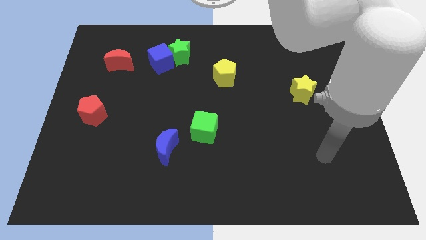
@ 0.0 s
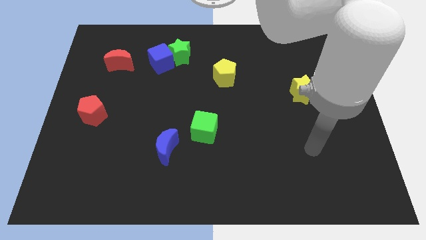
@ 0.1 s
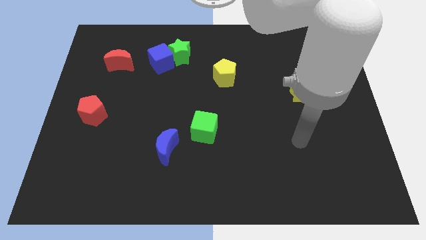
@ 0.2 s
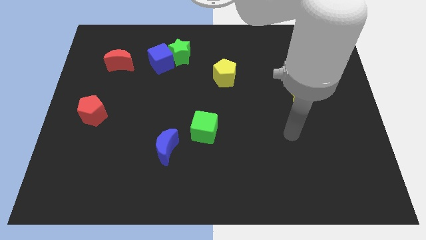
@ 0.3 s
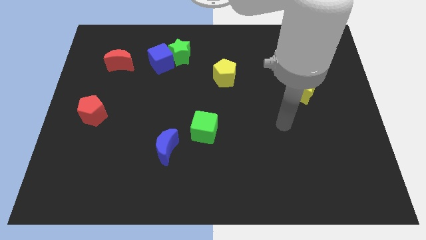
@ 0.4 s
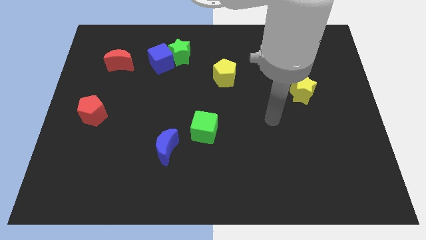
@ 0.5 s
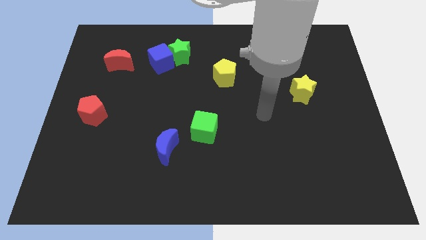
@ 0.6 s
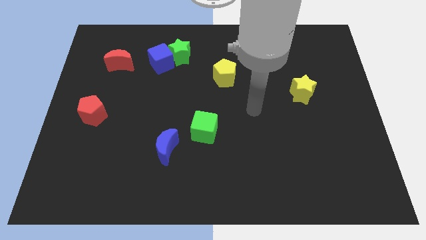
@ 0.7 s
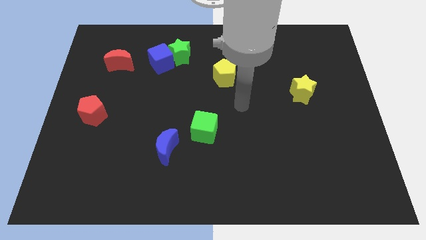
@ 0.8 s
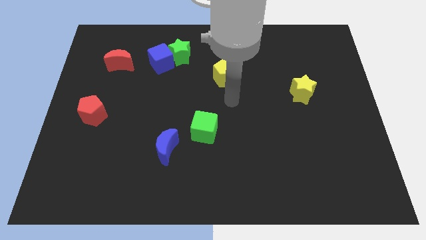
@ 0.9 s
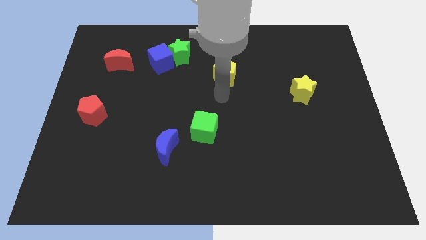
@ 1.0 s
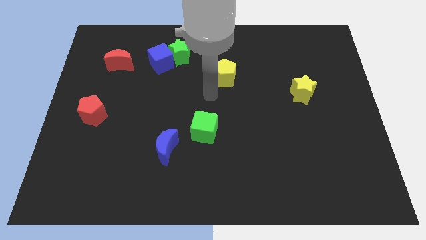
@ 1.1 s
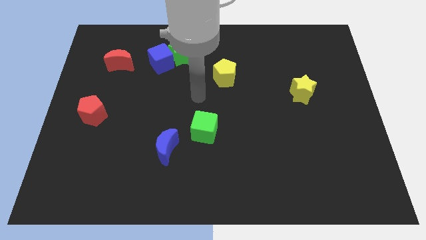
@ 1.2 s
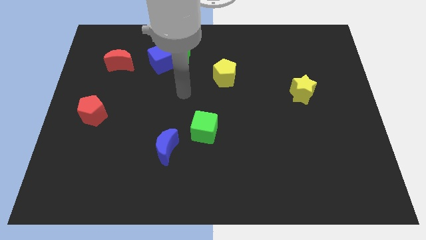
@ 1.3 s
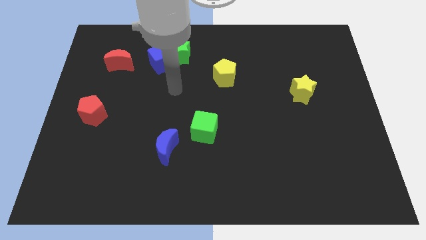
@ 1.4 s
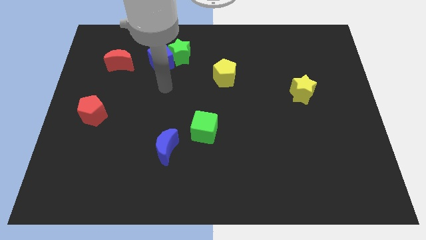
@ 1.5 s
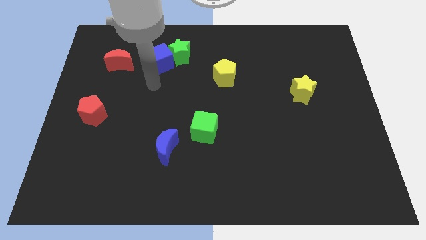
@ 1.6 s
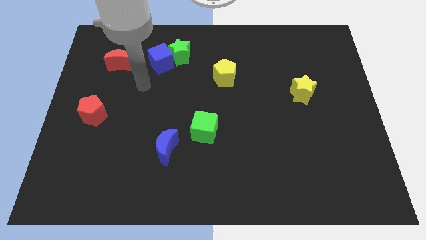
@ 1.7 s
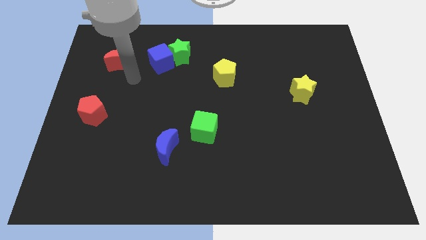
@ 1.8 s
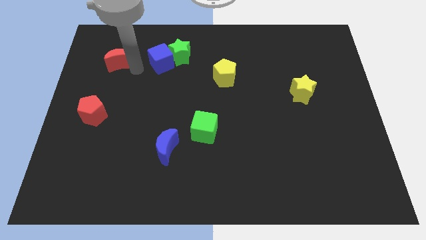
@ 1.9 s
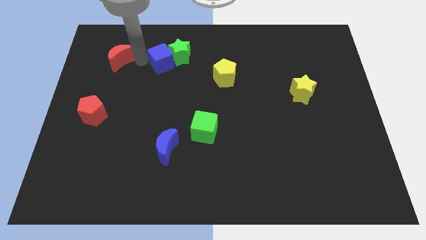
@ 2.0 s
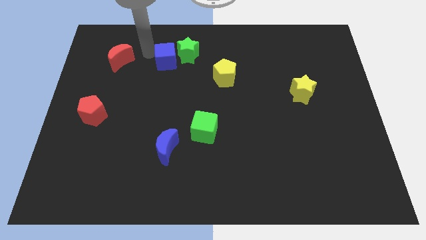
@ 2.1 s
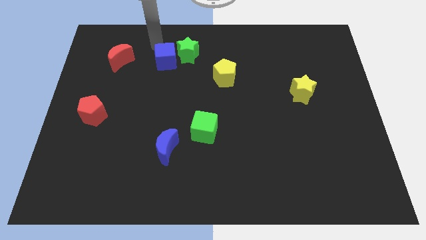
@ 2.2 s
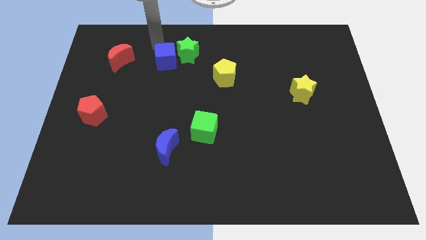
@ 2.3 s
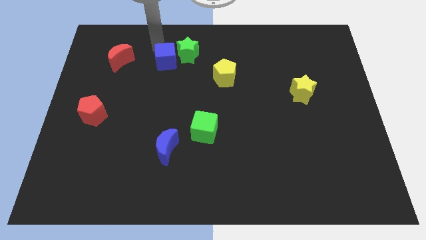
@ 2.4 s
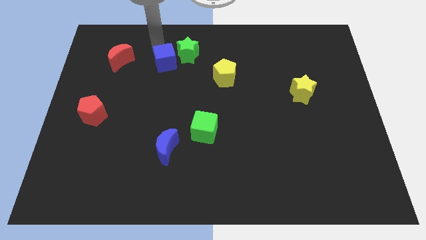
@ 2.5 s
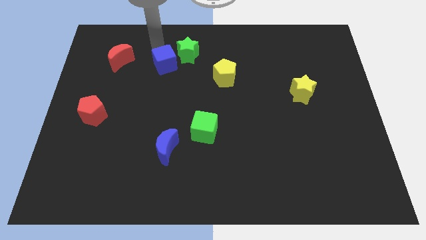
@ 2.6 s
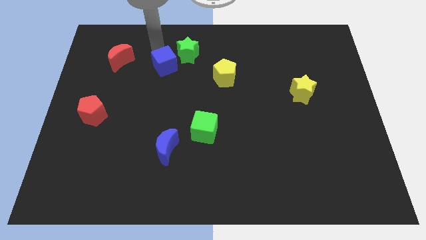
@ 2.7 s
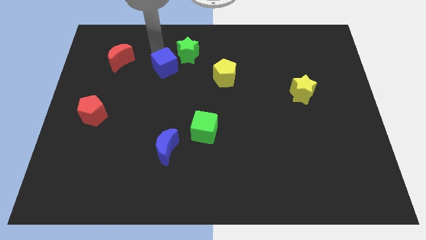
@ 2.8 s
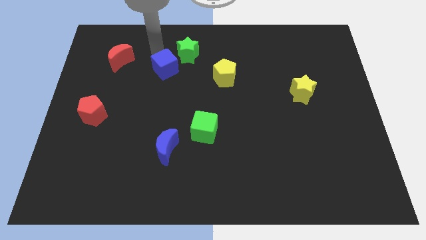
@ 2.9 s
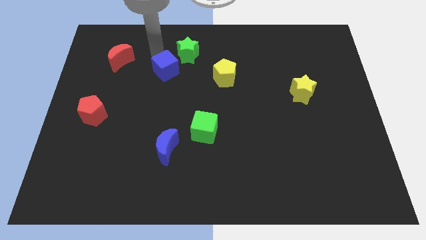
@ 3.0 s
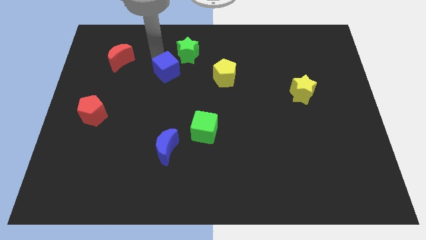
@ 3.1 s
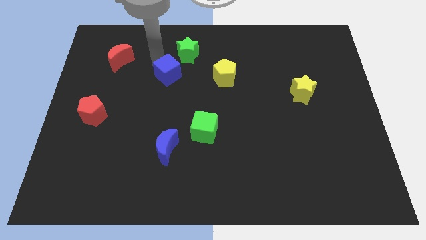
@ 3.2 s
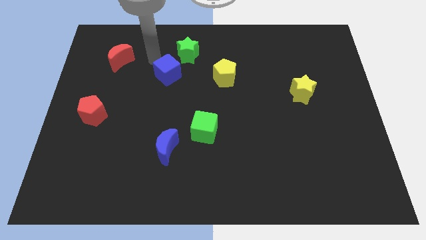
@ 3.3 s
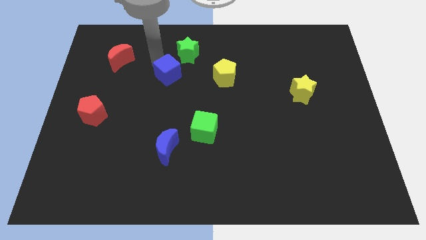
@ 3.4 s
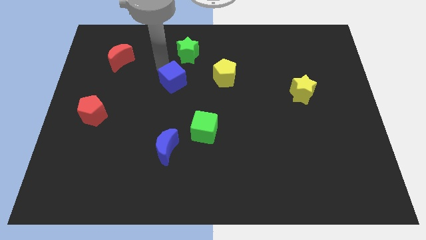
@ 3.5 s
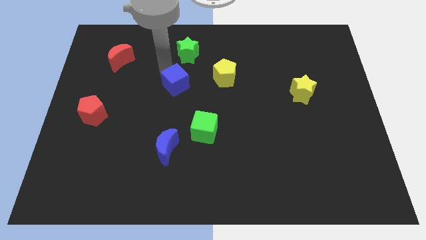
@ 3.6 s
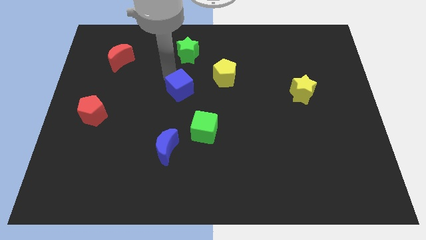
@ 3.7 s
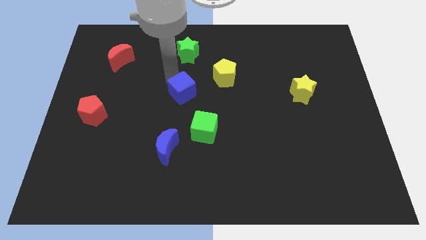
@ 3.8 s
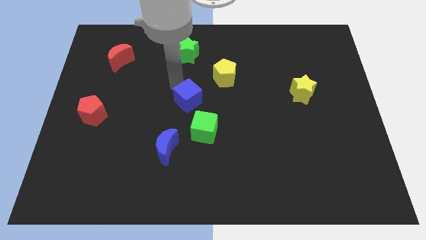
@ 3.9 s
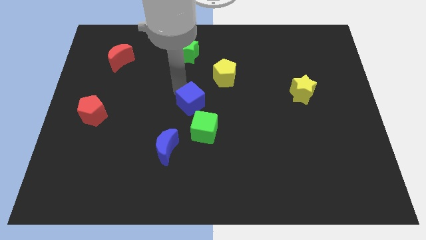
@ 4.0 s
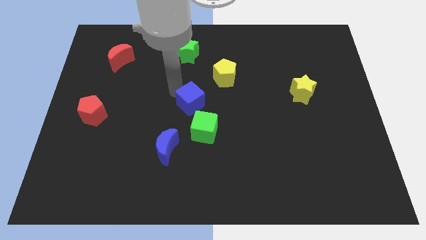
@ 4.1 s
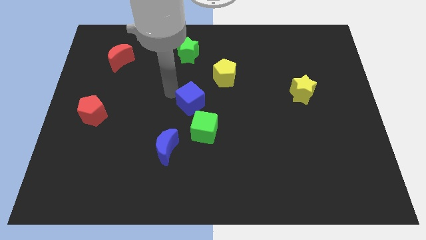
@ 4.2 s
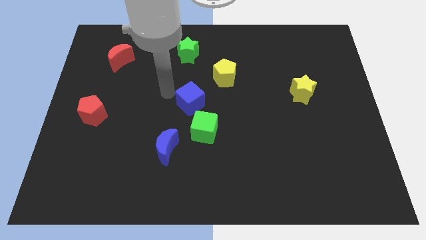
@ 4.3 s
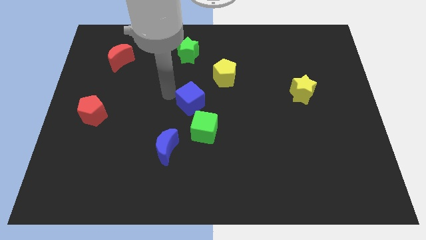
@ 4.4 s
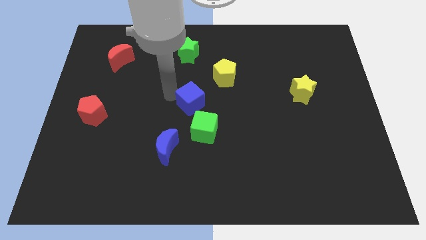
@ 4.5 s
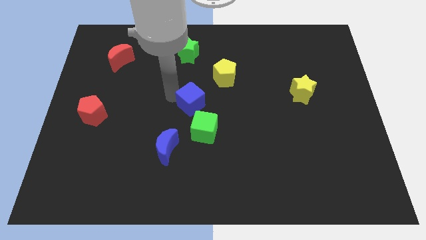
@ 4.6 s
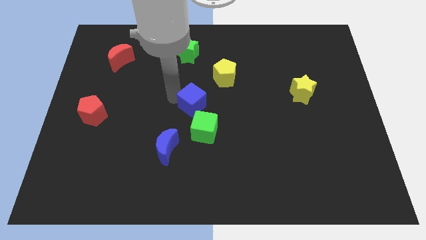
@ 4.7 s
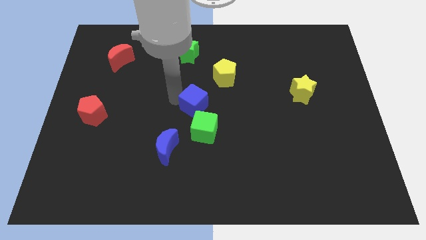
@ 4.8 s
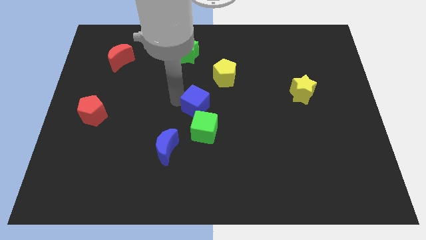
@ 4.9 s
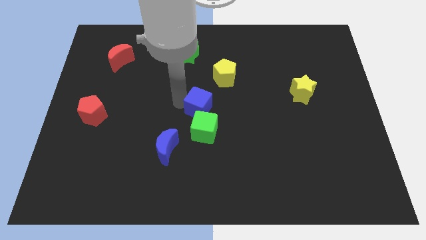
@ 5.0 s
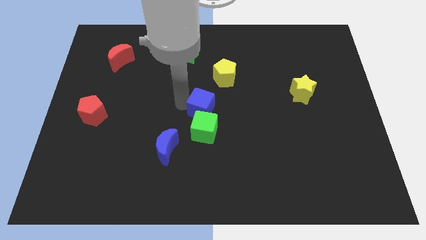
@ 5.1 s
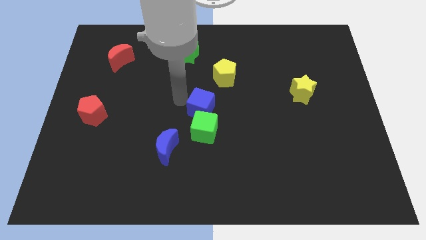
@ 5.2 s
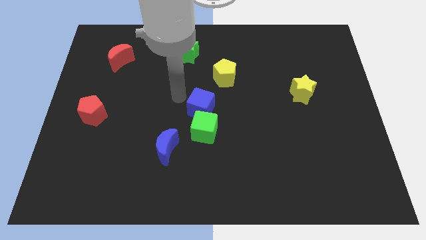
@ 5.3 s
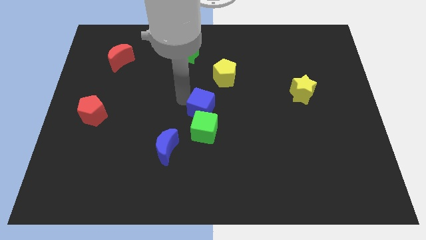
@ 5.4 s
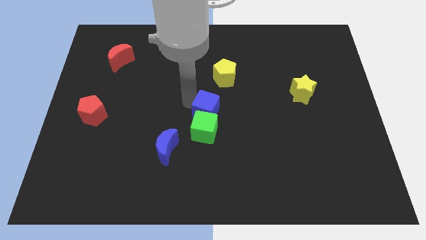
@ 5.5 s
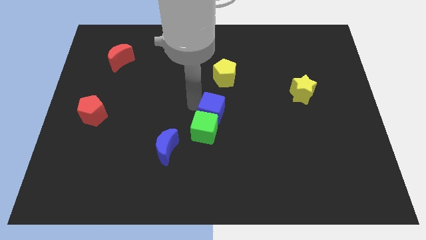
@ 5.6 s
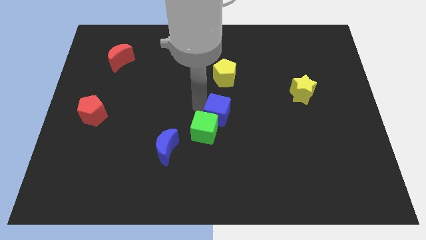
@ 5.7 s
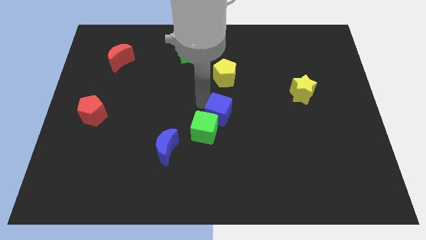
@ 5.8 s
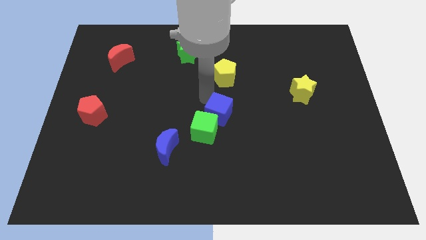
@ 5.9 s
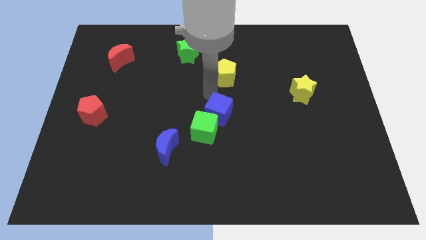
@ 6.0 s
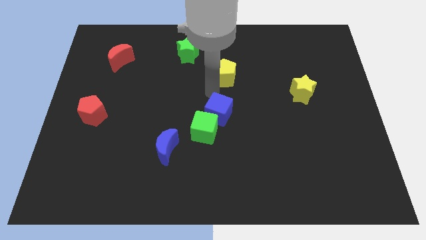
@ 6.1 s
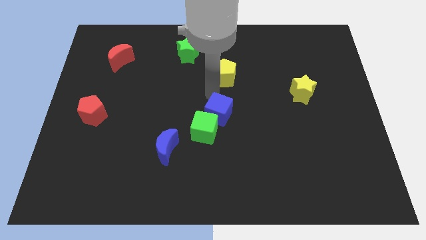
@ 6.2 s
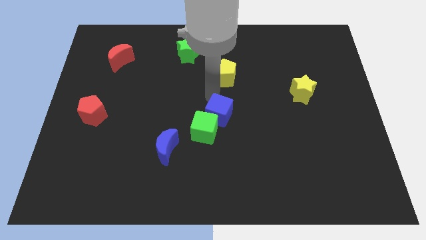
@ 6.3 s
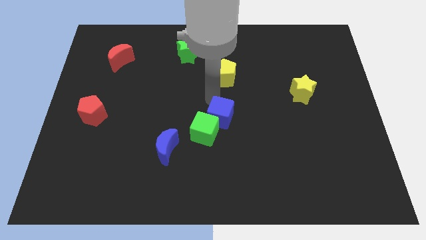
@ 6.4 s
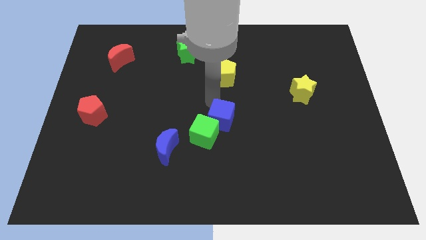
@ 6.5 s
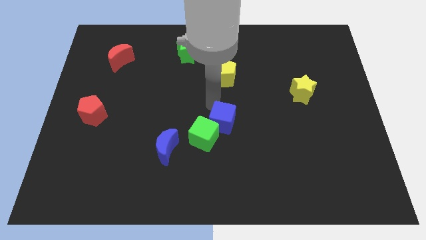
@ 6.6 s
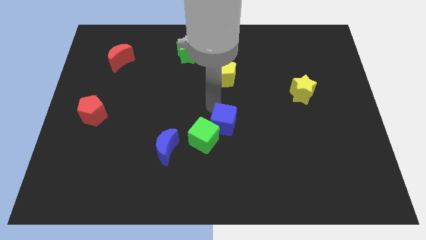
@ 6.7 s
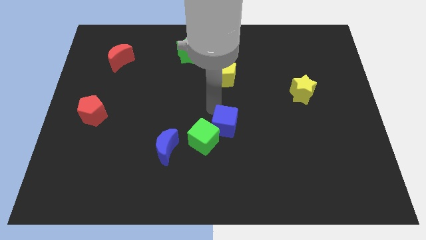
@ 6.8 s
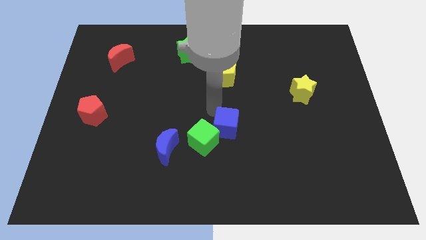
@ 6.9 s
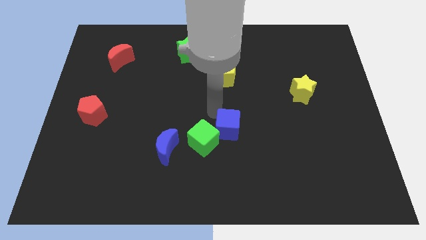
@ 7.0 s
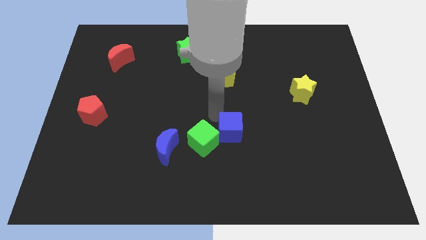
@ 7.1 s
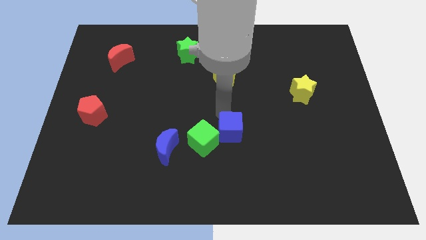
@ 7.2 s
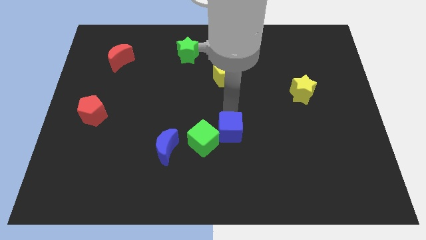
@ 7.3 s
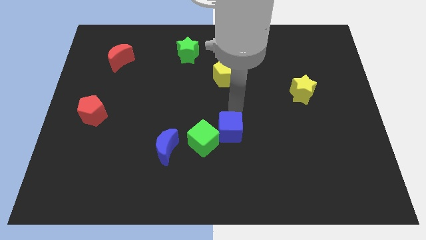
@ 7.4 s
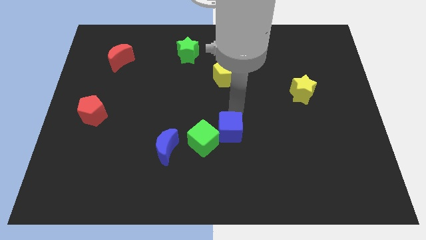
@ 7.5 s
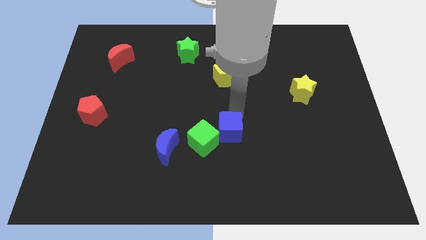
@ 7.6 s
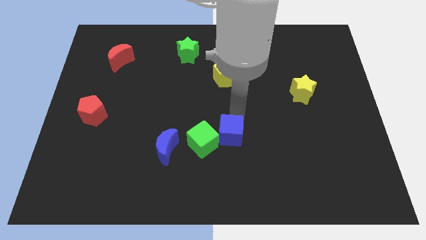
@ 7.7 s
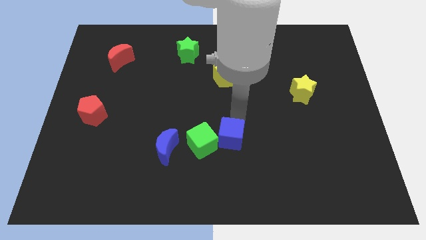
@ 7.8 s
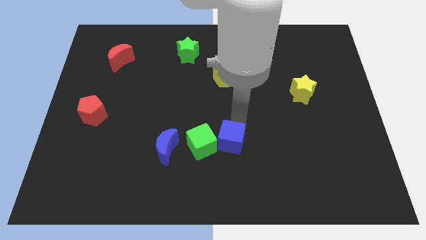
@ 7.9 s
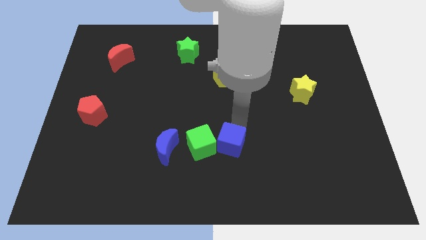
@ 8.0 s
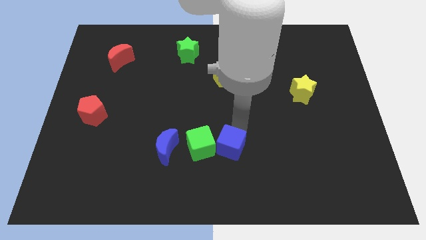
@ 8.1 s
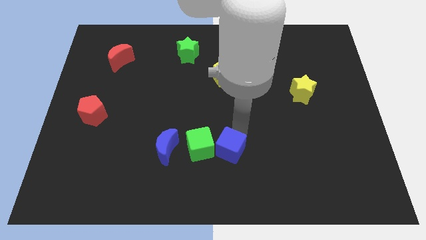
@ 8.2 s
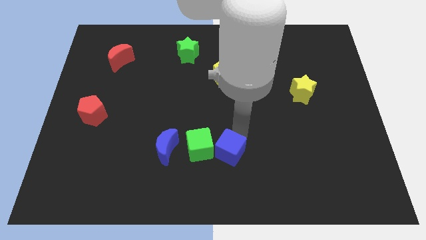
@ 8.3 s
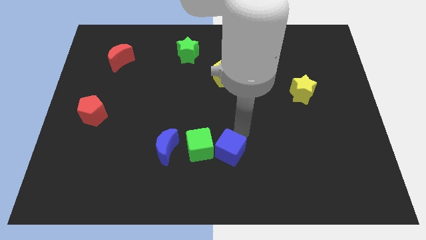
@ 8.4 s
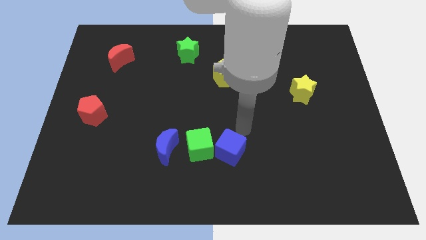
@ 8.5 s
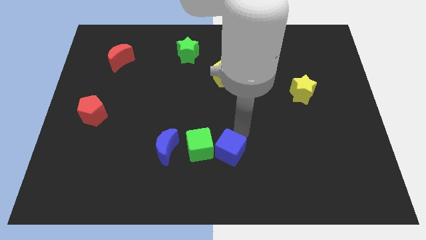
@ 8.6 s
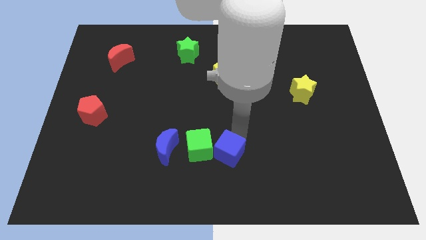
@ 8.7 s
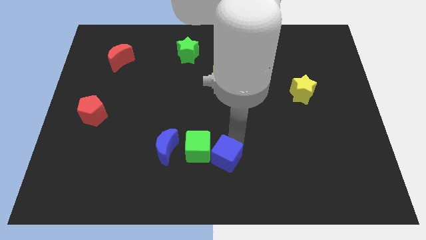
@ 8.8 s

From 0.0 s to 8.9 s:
put the blue cube to the bottom side
